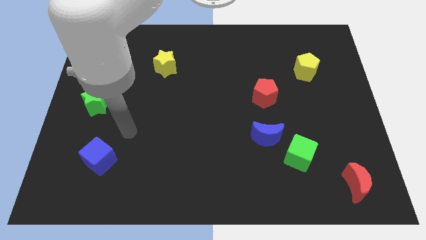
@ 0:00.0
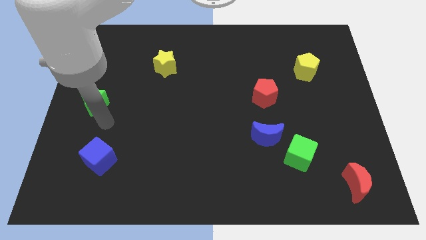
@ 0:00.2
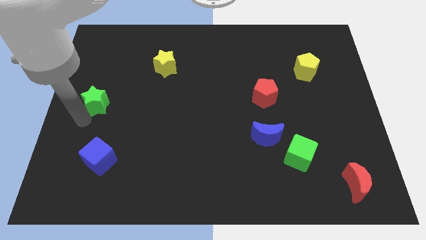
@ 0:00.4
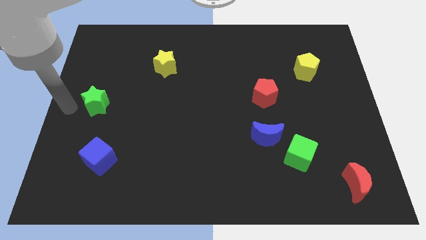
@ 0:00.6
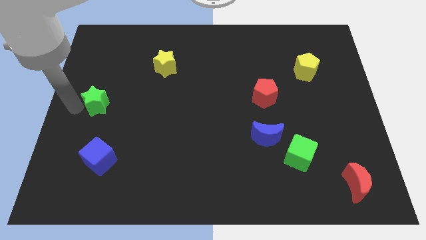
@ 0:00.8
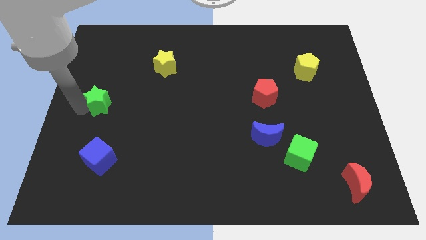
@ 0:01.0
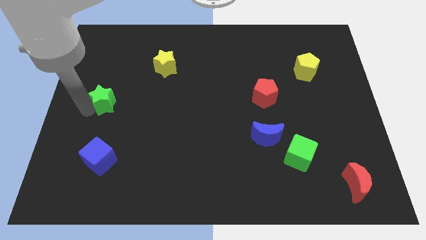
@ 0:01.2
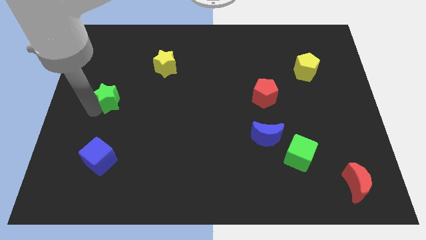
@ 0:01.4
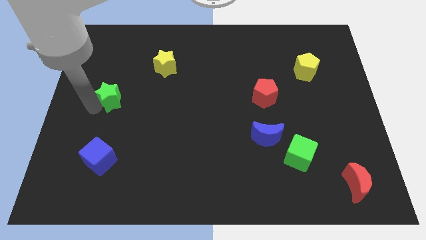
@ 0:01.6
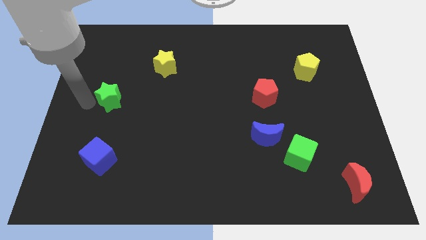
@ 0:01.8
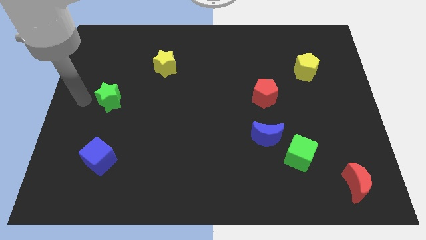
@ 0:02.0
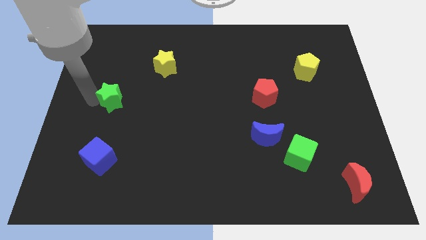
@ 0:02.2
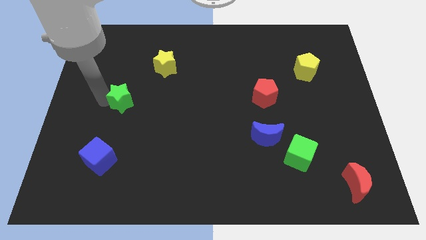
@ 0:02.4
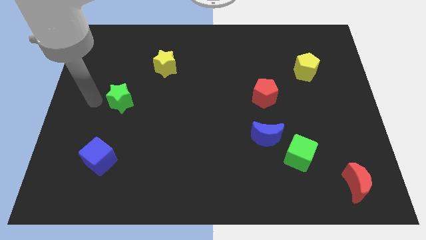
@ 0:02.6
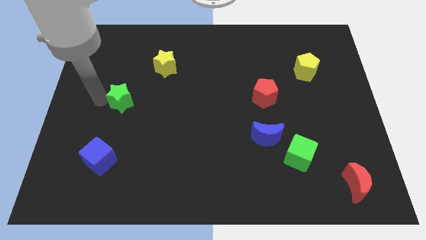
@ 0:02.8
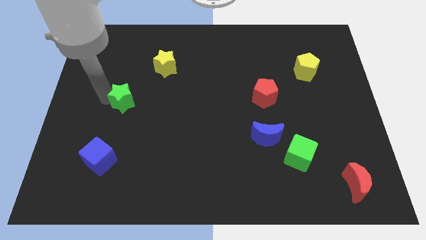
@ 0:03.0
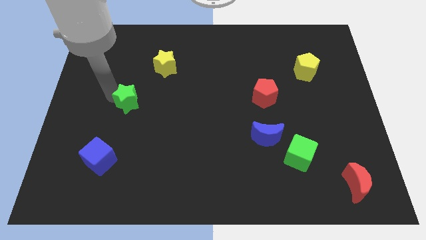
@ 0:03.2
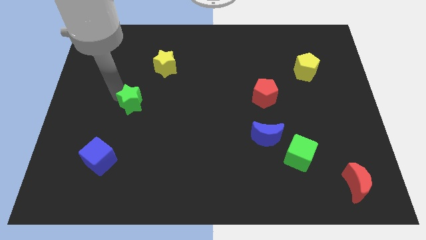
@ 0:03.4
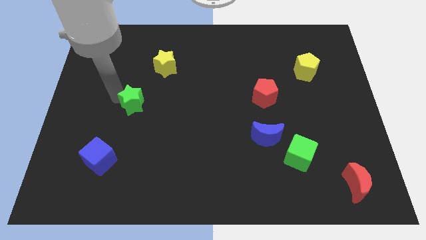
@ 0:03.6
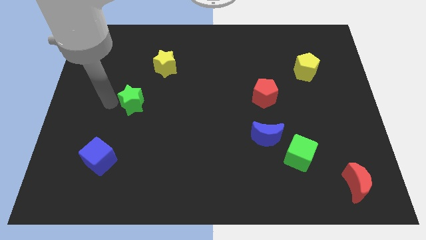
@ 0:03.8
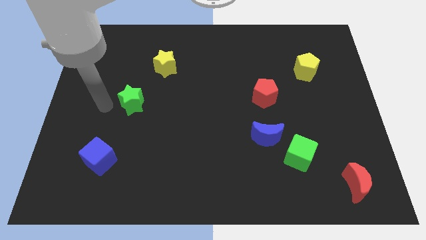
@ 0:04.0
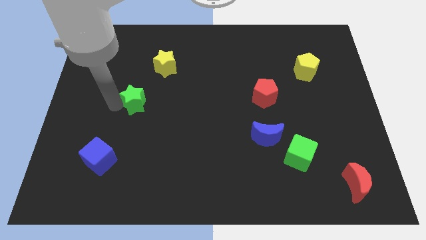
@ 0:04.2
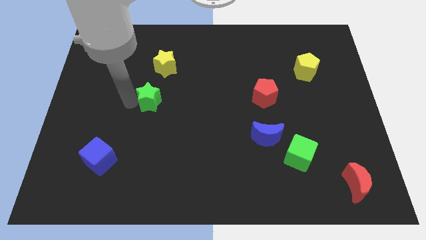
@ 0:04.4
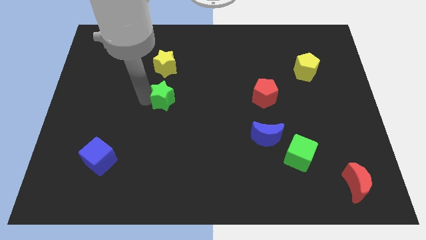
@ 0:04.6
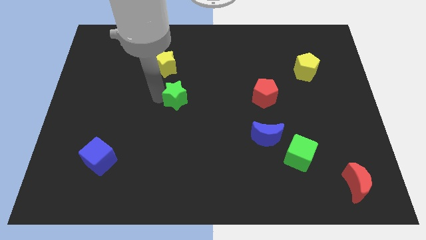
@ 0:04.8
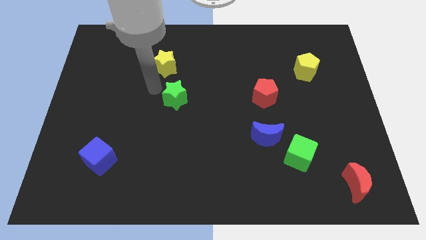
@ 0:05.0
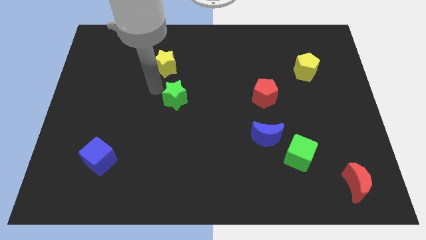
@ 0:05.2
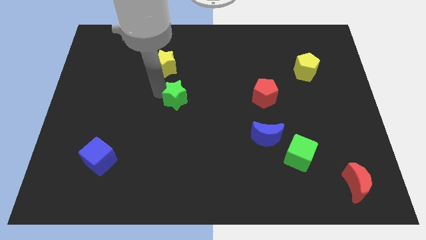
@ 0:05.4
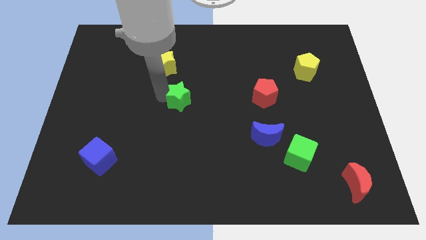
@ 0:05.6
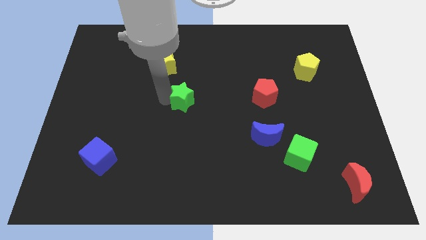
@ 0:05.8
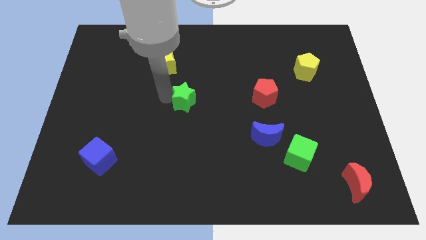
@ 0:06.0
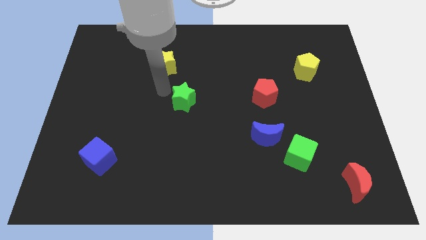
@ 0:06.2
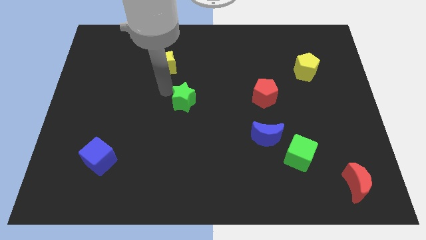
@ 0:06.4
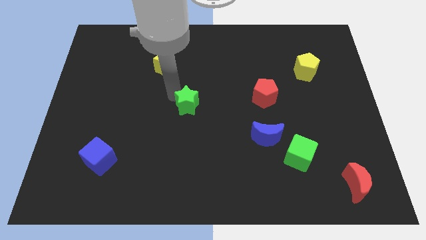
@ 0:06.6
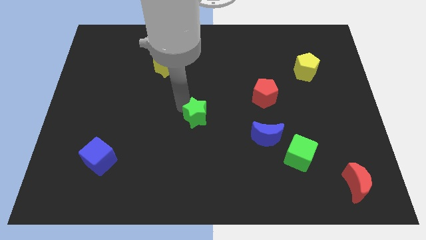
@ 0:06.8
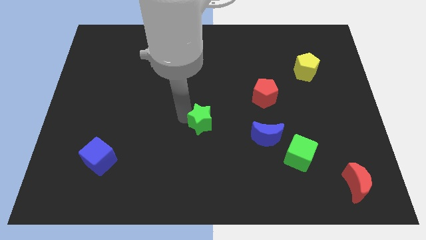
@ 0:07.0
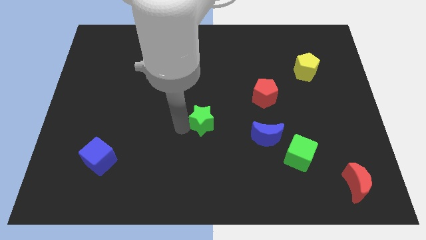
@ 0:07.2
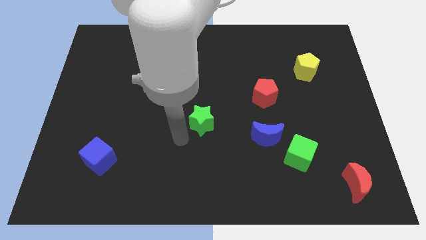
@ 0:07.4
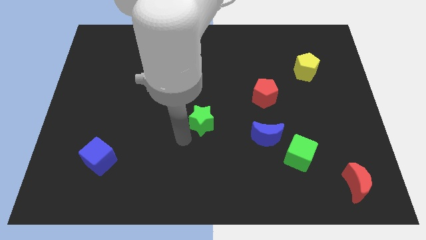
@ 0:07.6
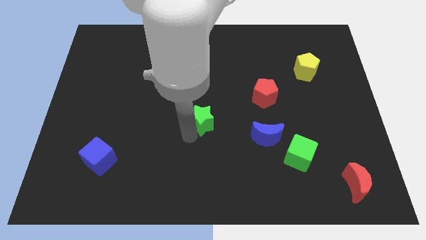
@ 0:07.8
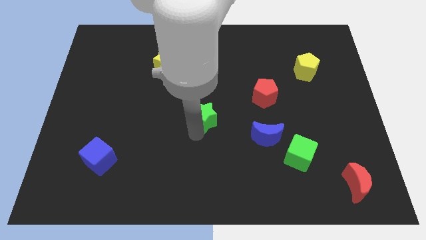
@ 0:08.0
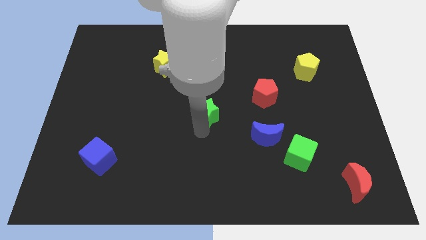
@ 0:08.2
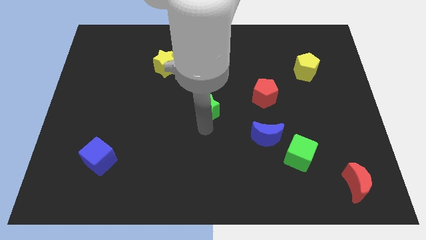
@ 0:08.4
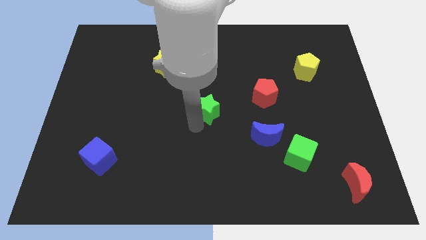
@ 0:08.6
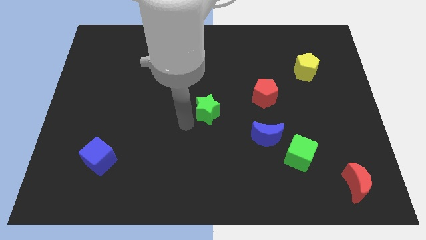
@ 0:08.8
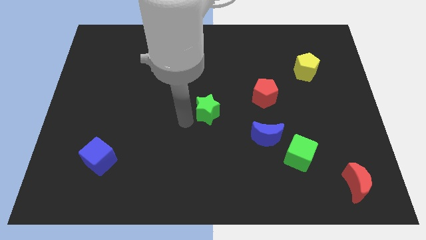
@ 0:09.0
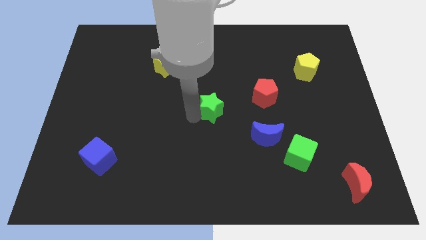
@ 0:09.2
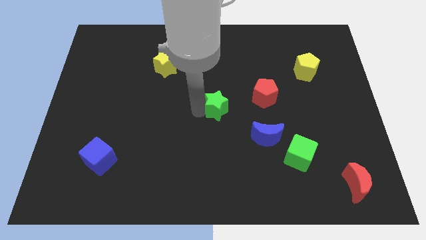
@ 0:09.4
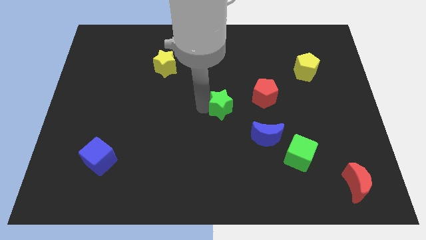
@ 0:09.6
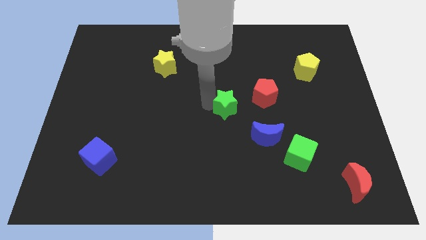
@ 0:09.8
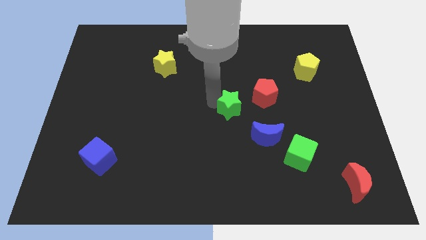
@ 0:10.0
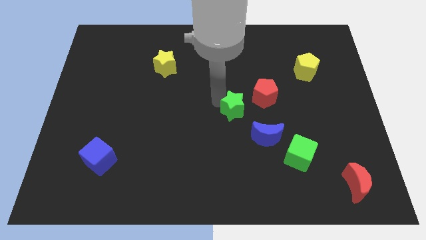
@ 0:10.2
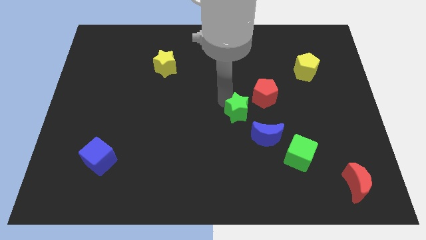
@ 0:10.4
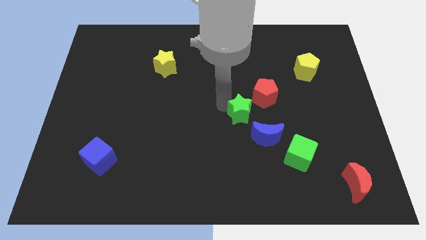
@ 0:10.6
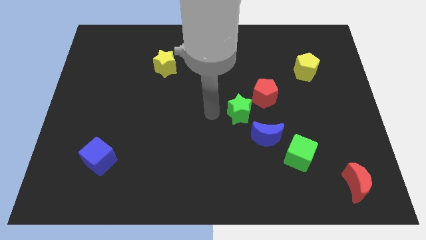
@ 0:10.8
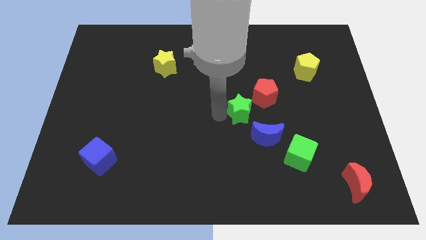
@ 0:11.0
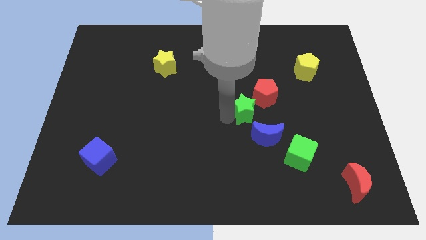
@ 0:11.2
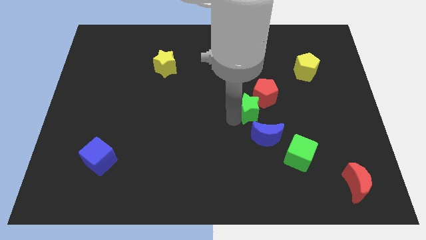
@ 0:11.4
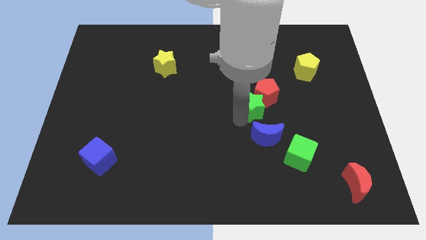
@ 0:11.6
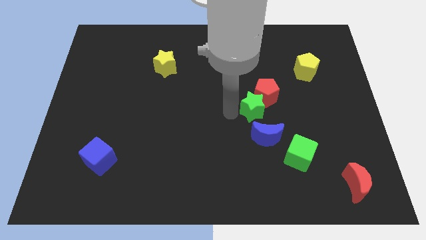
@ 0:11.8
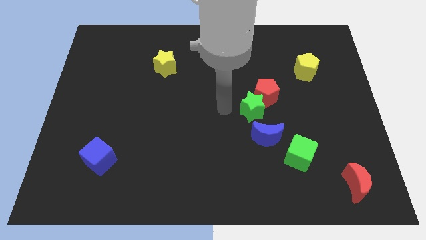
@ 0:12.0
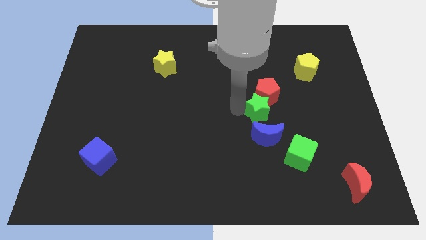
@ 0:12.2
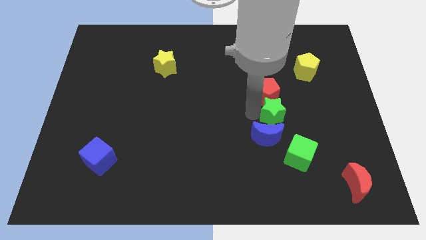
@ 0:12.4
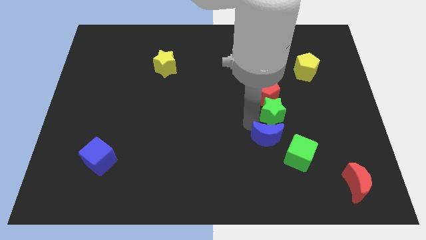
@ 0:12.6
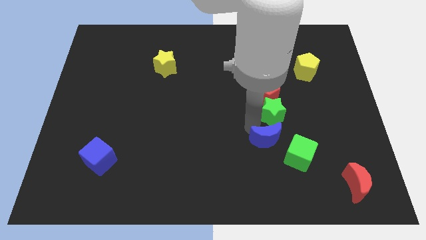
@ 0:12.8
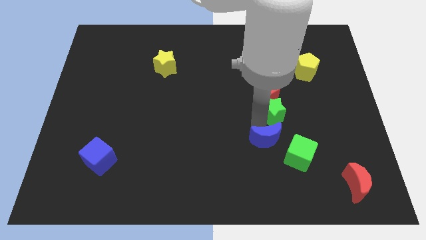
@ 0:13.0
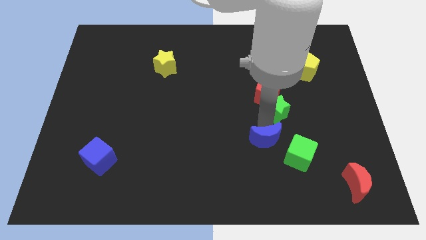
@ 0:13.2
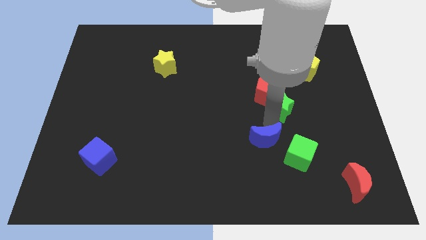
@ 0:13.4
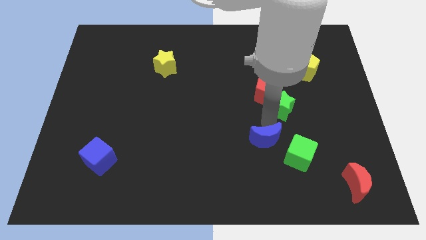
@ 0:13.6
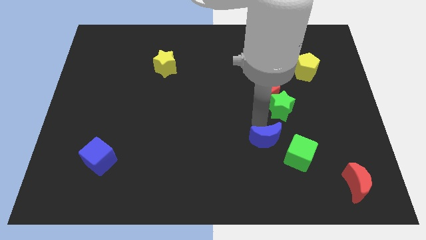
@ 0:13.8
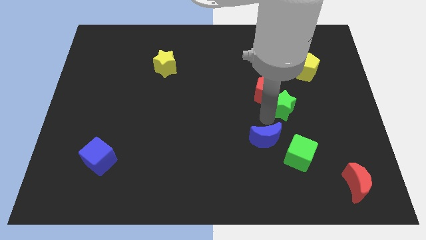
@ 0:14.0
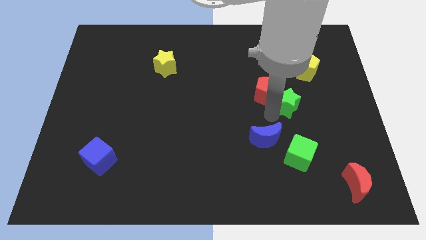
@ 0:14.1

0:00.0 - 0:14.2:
move the green star just right of the red pentagon

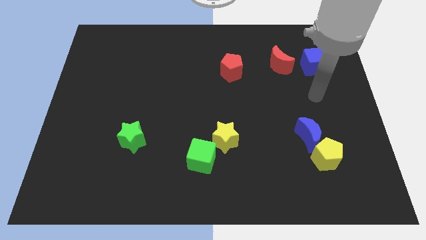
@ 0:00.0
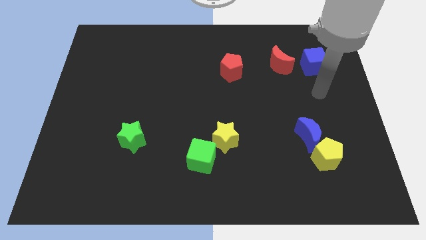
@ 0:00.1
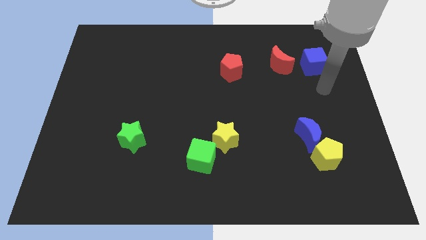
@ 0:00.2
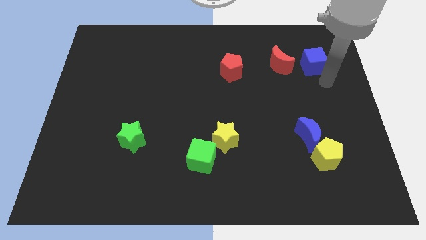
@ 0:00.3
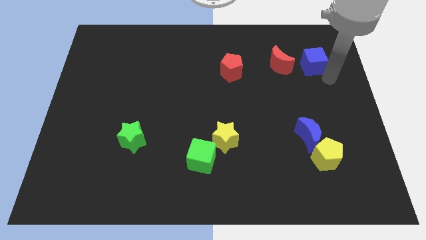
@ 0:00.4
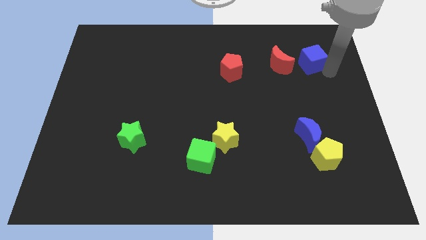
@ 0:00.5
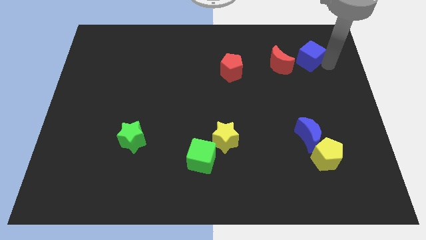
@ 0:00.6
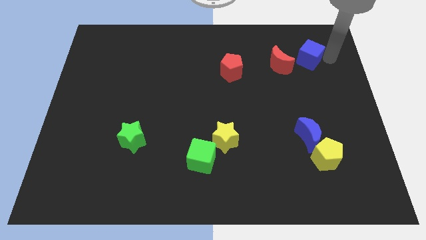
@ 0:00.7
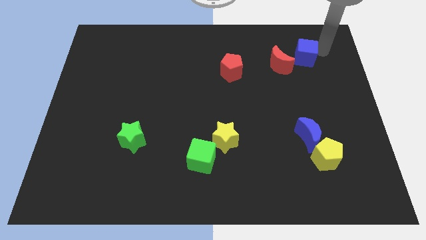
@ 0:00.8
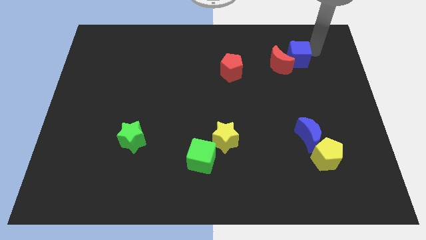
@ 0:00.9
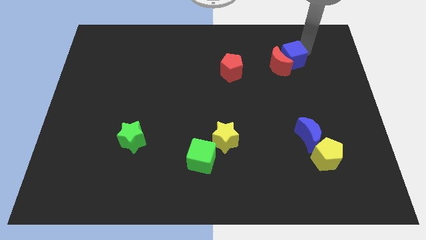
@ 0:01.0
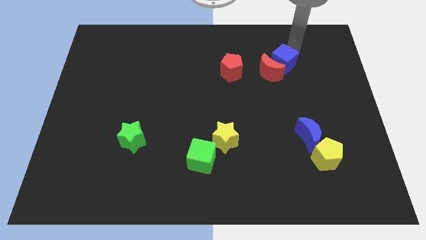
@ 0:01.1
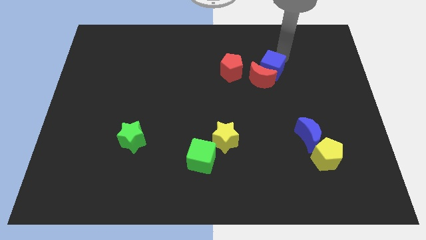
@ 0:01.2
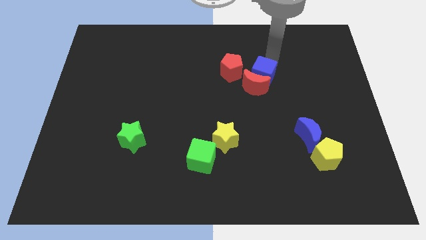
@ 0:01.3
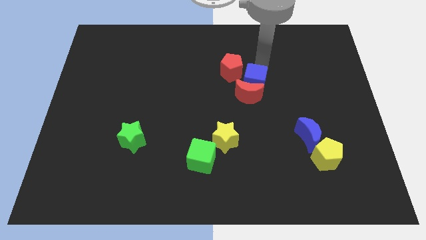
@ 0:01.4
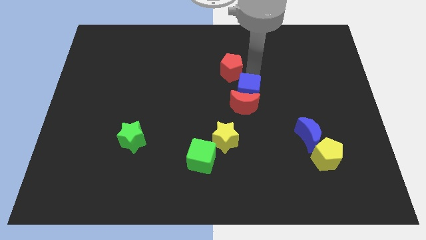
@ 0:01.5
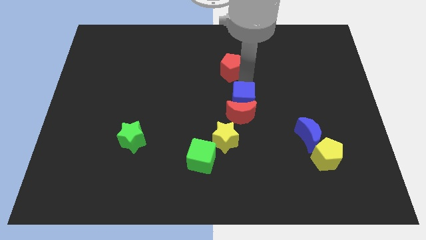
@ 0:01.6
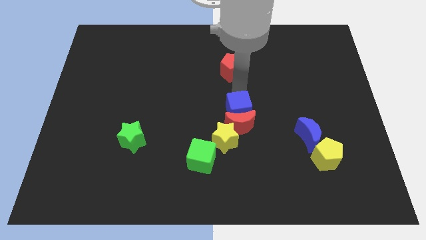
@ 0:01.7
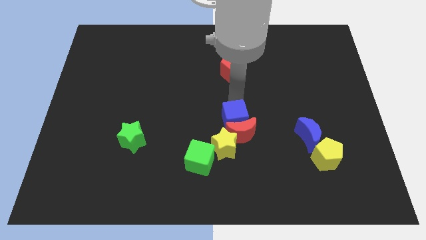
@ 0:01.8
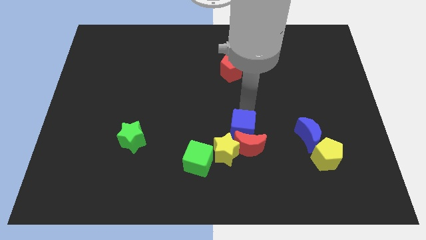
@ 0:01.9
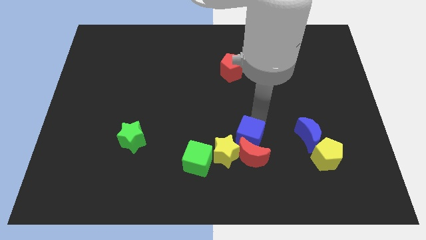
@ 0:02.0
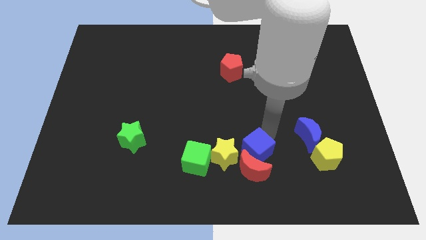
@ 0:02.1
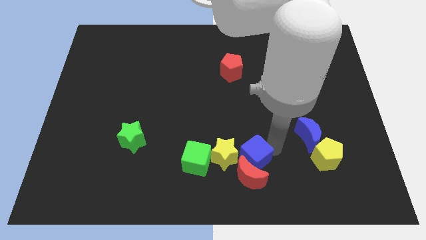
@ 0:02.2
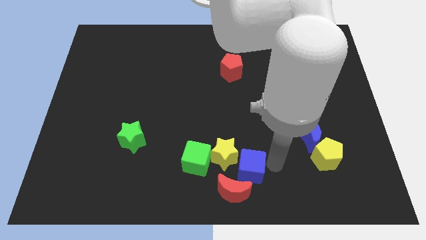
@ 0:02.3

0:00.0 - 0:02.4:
move the red moon to the bottom right of the green cube
